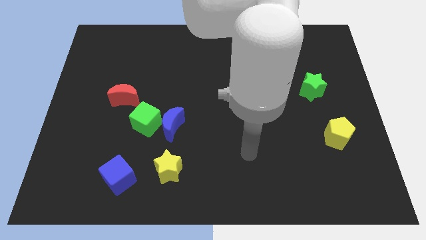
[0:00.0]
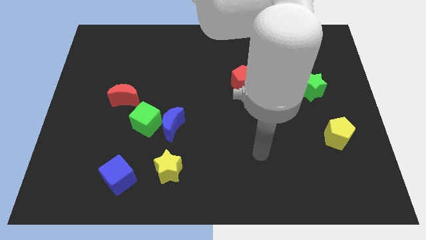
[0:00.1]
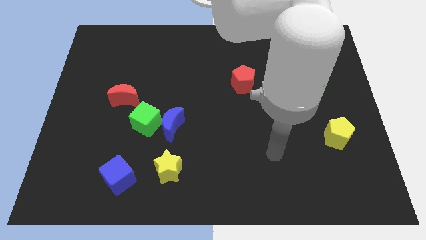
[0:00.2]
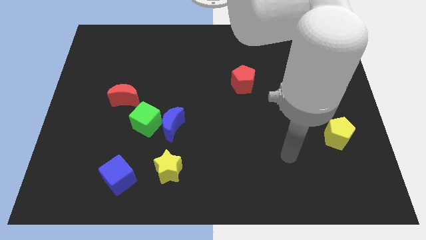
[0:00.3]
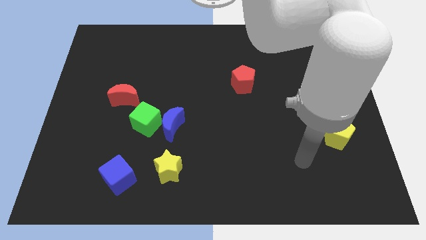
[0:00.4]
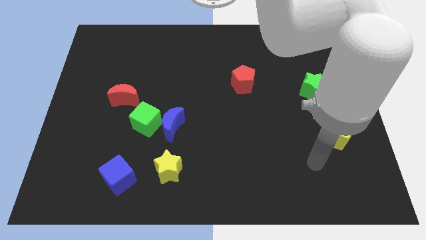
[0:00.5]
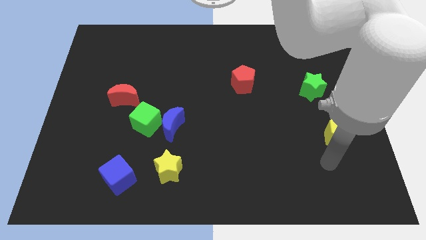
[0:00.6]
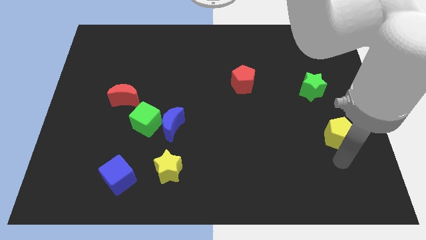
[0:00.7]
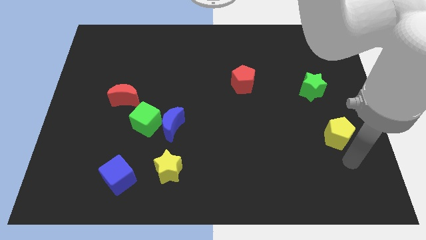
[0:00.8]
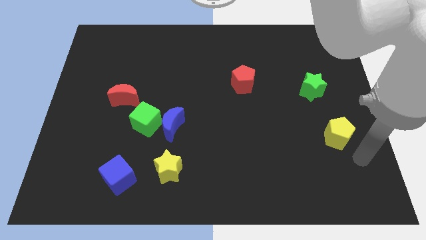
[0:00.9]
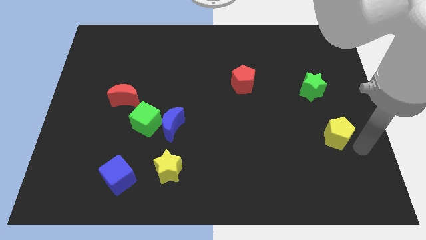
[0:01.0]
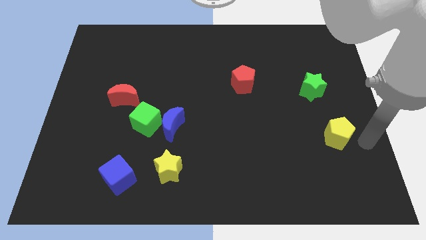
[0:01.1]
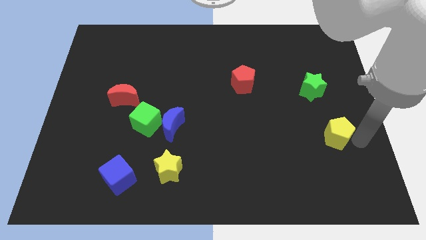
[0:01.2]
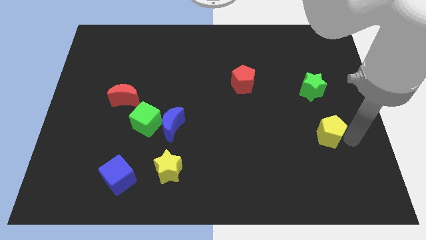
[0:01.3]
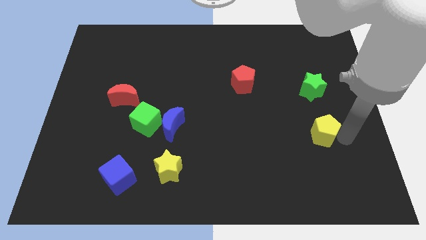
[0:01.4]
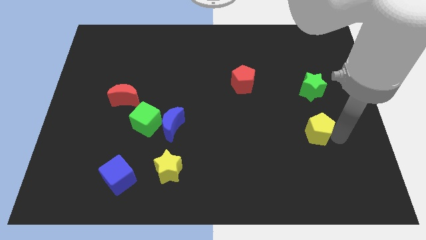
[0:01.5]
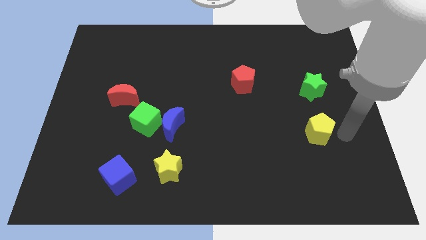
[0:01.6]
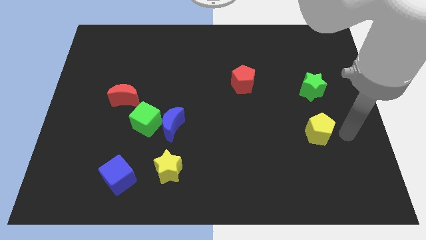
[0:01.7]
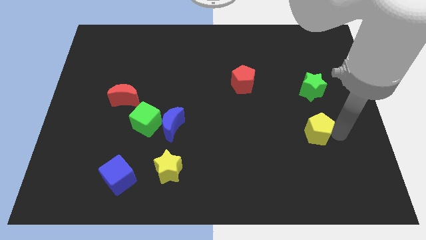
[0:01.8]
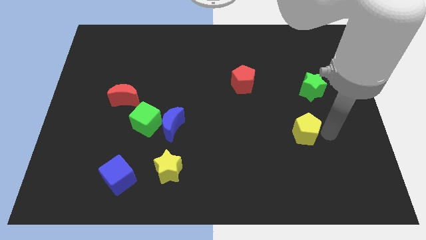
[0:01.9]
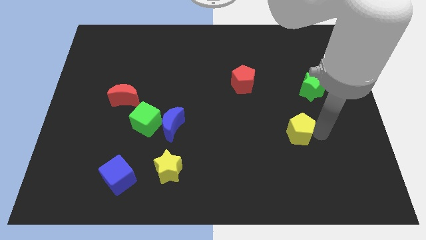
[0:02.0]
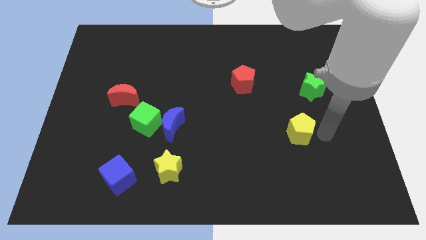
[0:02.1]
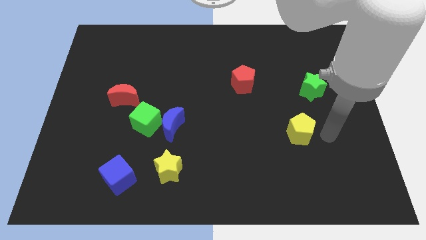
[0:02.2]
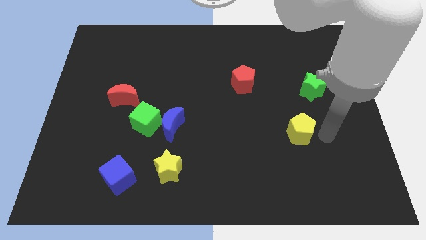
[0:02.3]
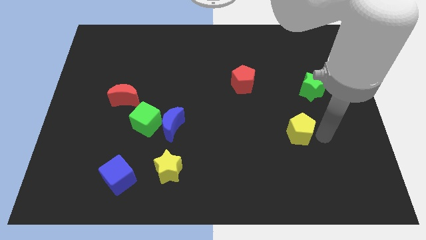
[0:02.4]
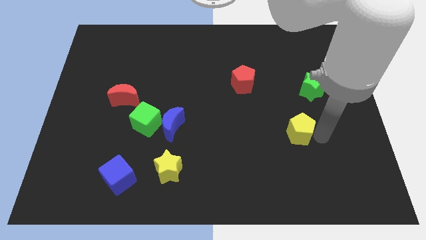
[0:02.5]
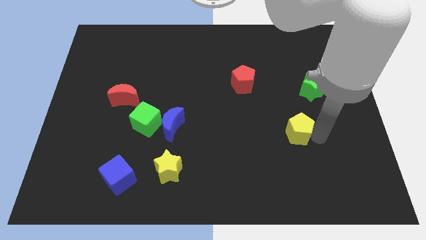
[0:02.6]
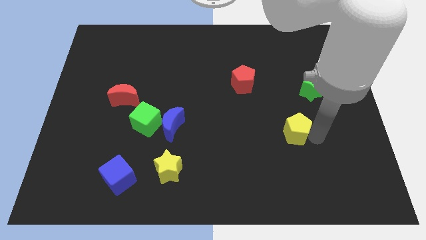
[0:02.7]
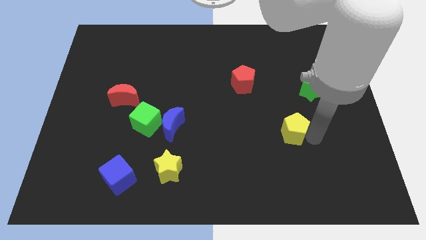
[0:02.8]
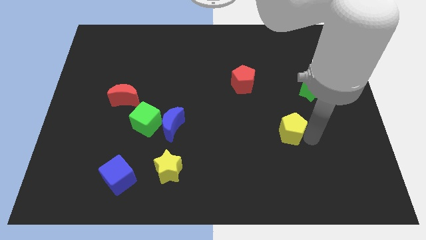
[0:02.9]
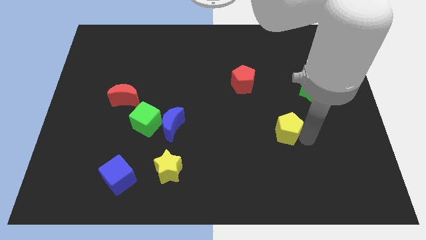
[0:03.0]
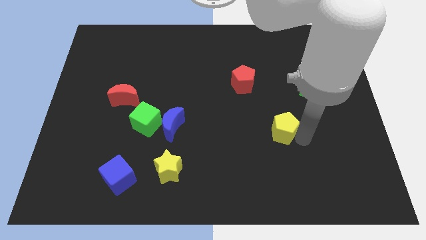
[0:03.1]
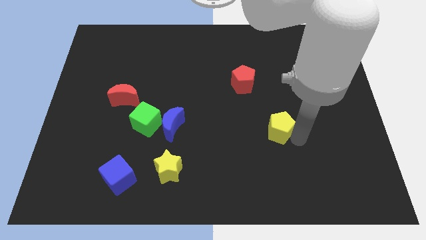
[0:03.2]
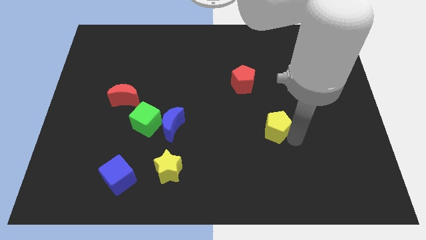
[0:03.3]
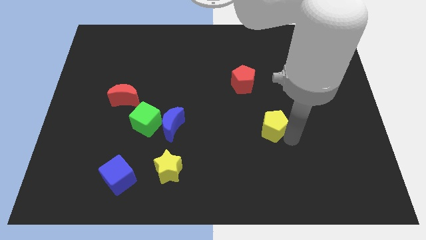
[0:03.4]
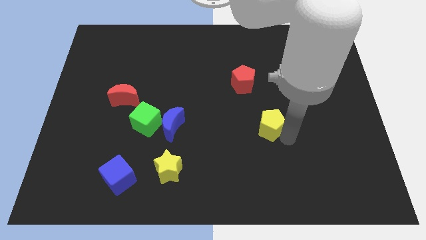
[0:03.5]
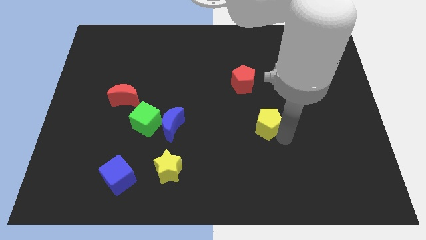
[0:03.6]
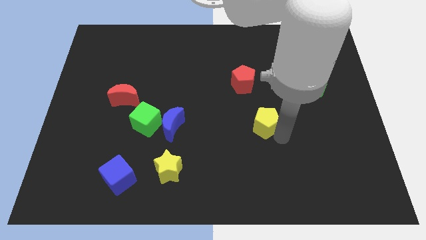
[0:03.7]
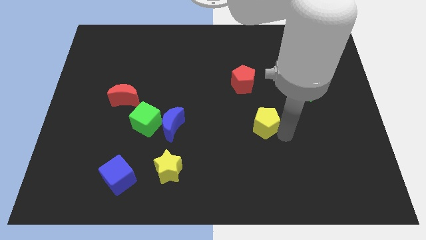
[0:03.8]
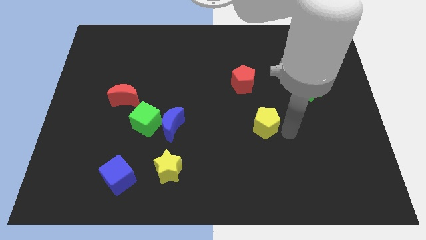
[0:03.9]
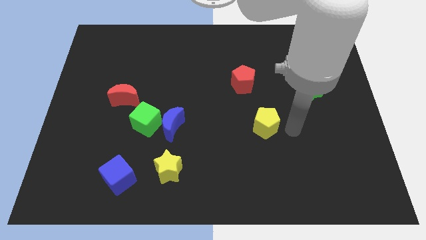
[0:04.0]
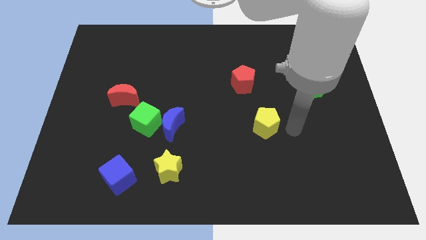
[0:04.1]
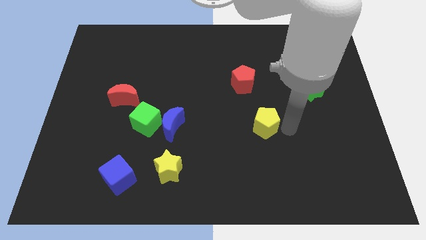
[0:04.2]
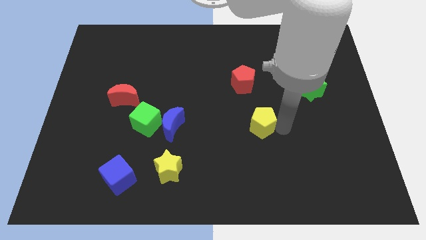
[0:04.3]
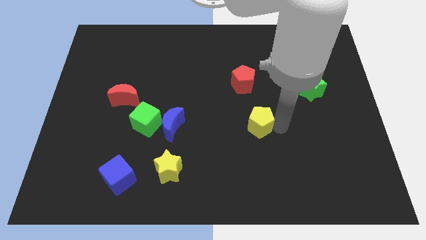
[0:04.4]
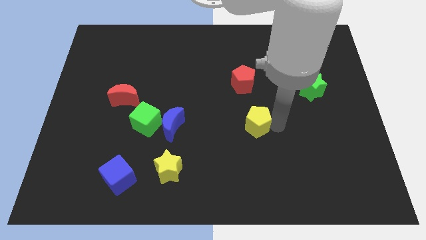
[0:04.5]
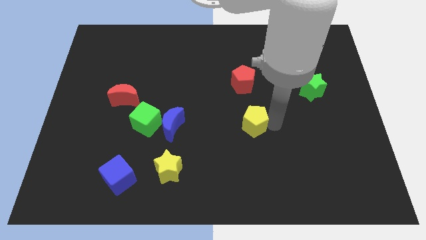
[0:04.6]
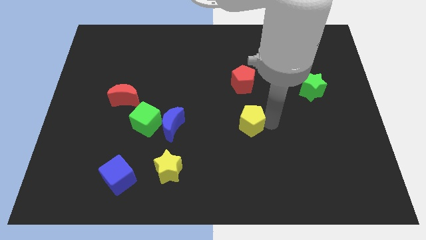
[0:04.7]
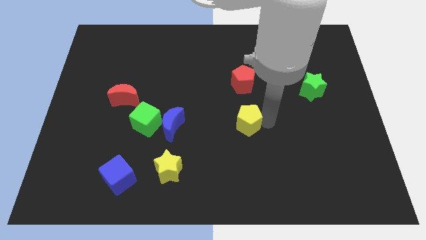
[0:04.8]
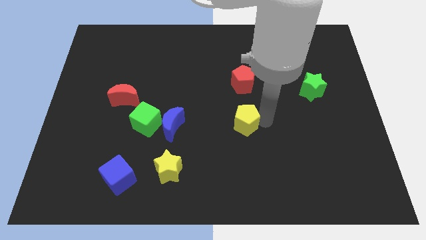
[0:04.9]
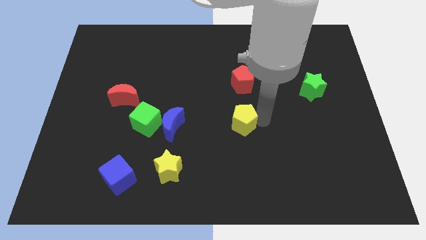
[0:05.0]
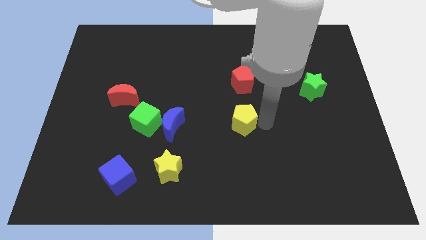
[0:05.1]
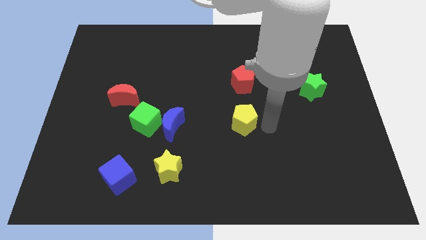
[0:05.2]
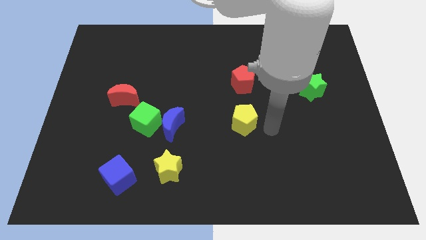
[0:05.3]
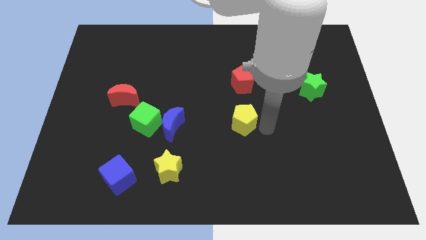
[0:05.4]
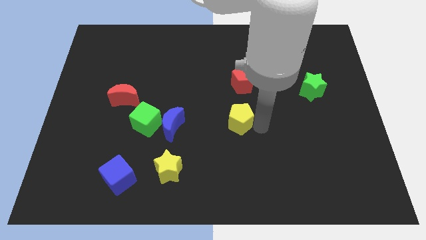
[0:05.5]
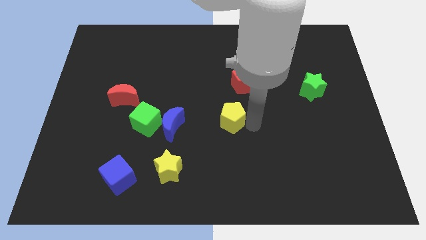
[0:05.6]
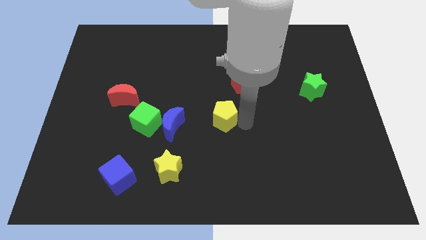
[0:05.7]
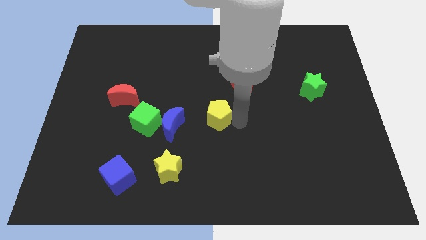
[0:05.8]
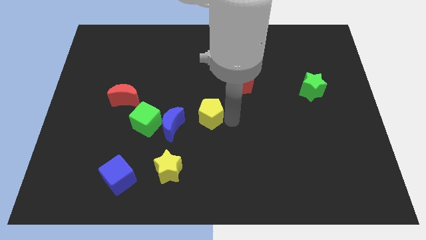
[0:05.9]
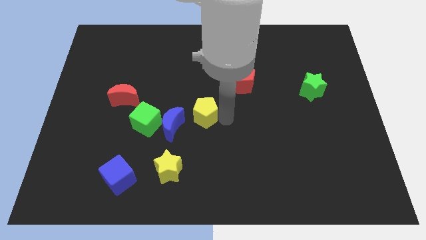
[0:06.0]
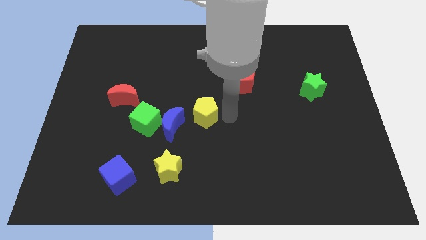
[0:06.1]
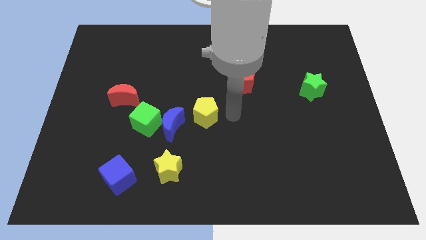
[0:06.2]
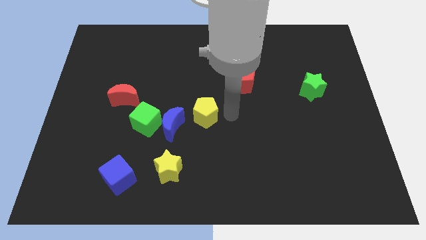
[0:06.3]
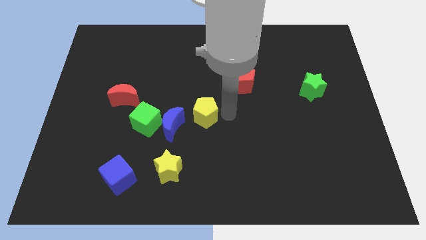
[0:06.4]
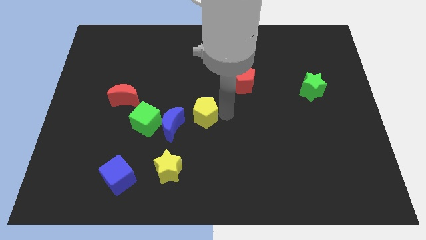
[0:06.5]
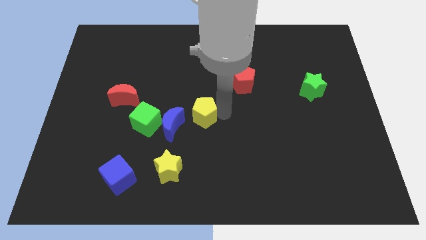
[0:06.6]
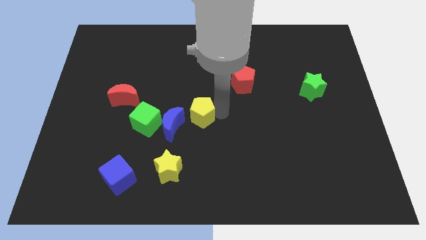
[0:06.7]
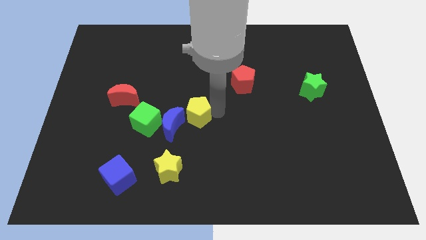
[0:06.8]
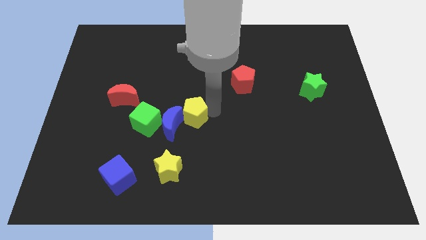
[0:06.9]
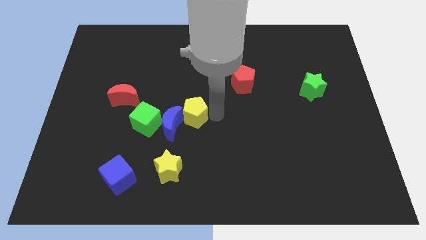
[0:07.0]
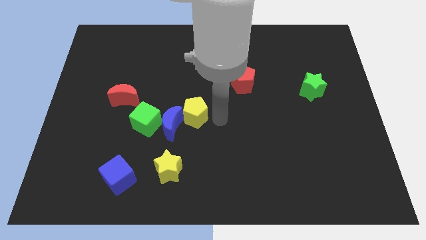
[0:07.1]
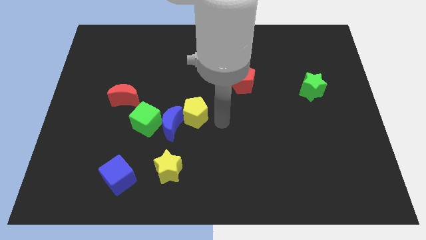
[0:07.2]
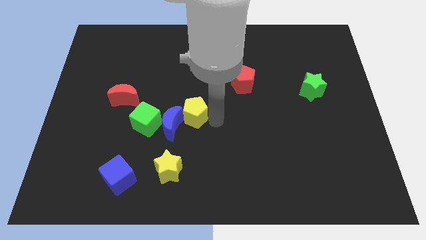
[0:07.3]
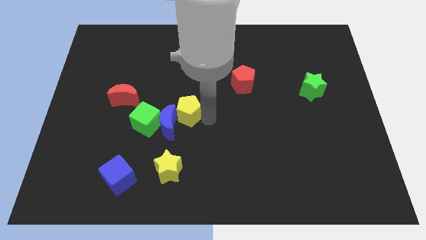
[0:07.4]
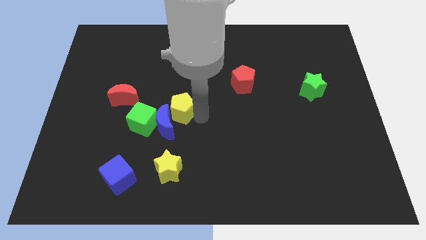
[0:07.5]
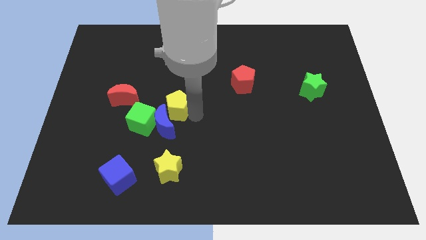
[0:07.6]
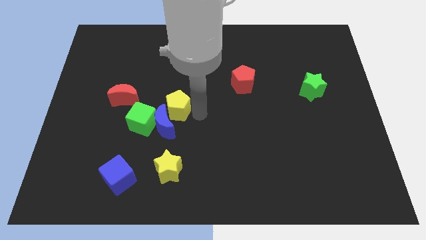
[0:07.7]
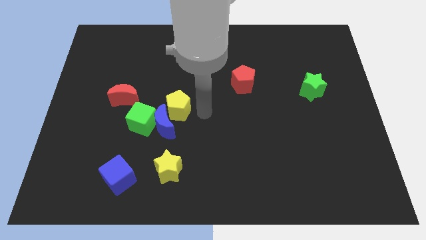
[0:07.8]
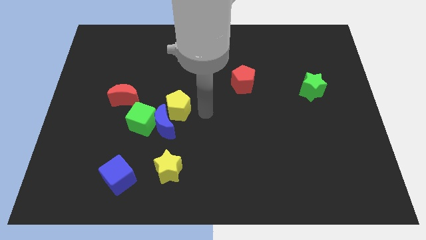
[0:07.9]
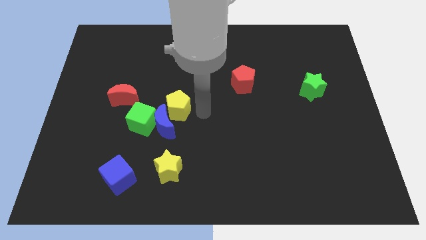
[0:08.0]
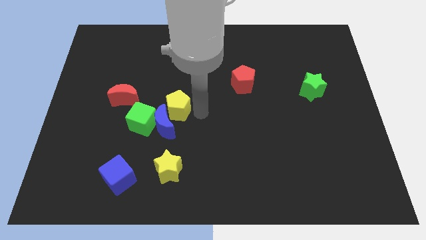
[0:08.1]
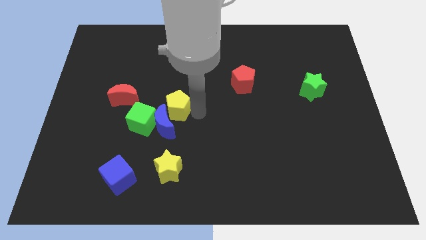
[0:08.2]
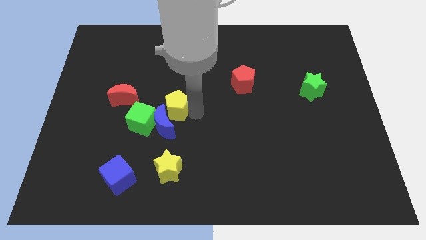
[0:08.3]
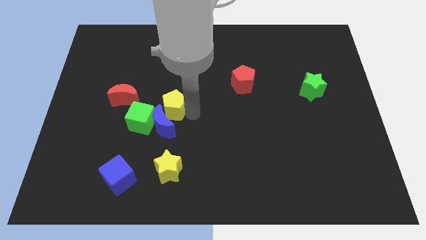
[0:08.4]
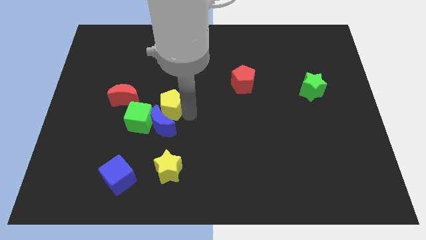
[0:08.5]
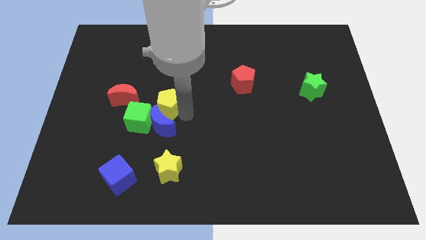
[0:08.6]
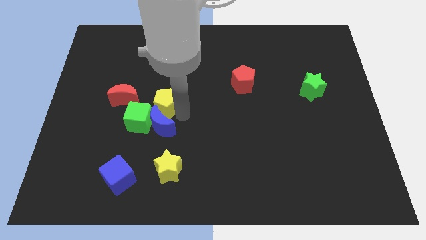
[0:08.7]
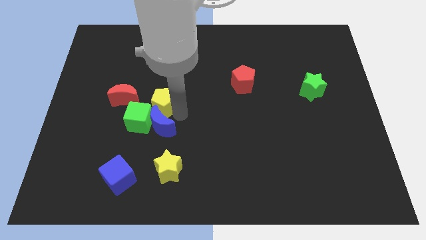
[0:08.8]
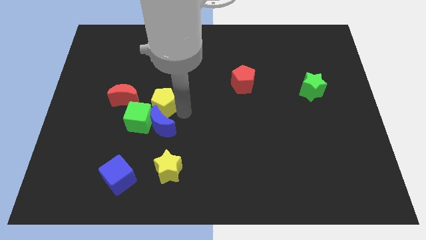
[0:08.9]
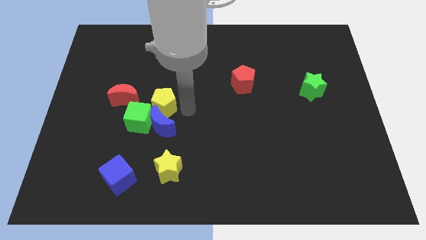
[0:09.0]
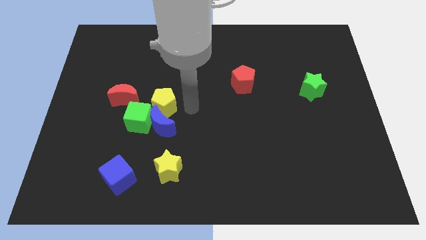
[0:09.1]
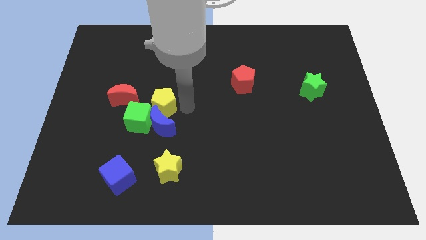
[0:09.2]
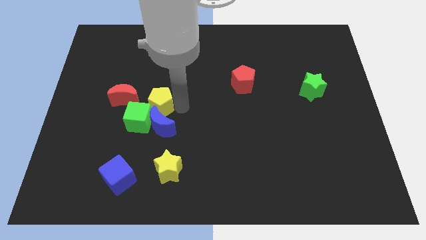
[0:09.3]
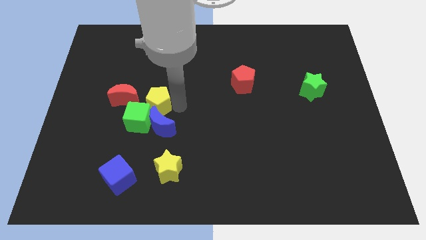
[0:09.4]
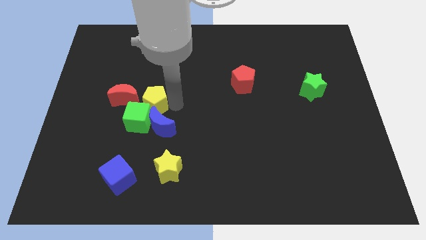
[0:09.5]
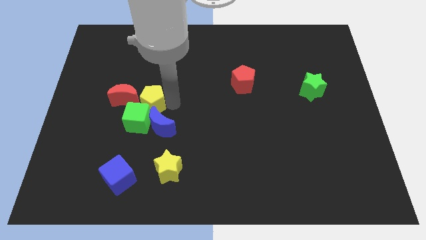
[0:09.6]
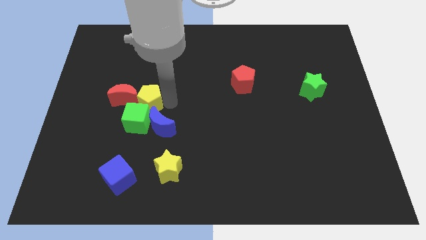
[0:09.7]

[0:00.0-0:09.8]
move the yellow pentagon next to the red moon
